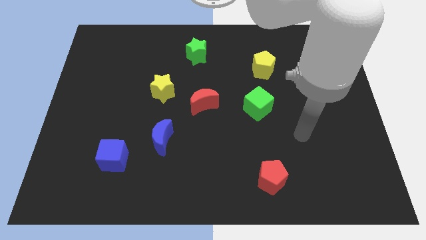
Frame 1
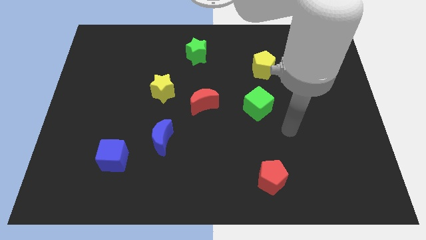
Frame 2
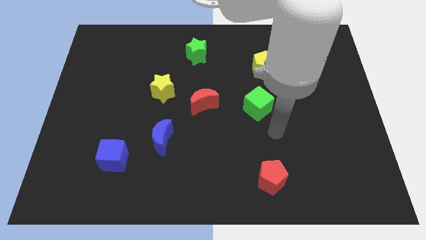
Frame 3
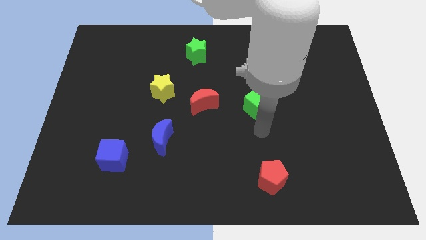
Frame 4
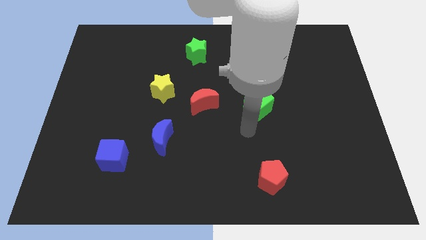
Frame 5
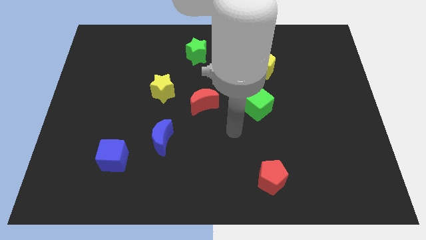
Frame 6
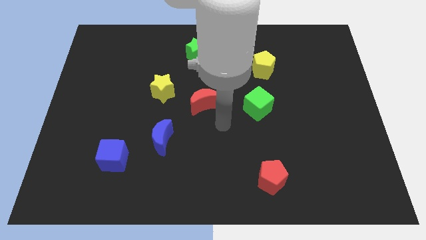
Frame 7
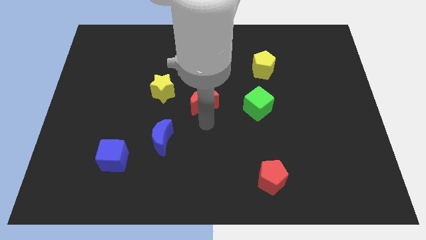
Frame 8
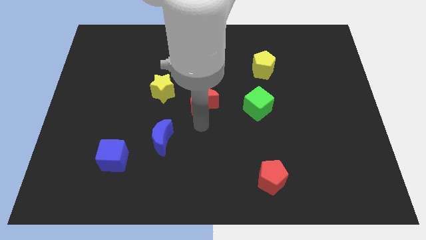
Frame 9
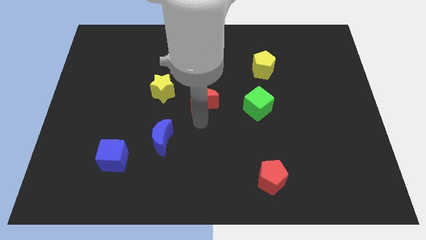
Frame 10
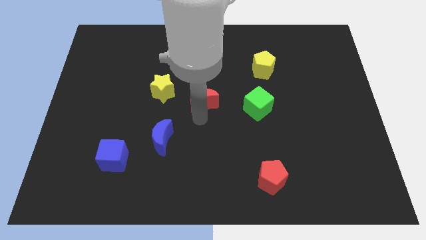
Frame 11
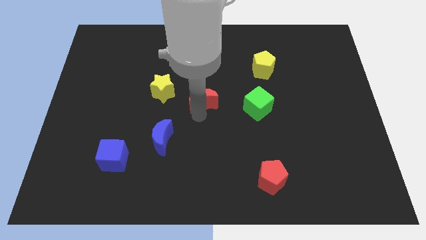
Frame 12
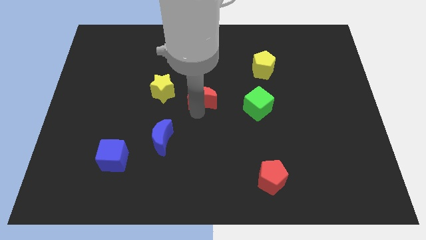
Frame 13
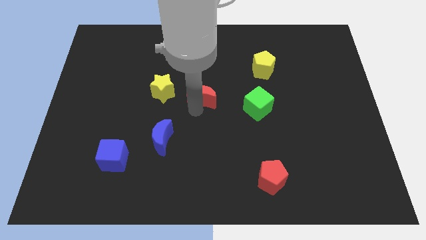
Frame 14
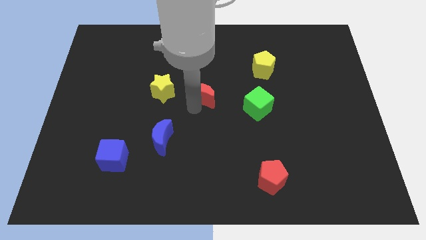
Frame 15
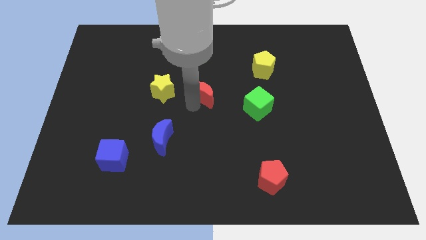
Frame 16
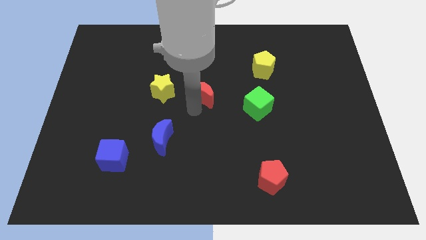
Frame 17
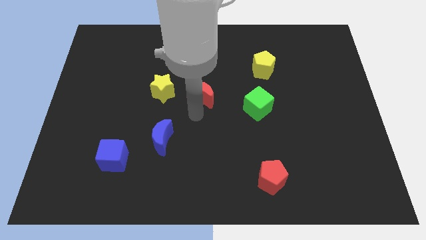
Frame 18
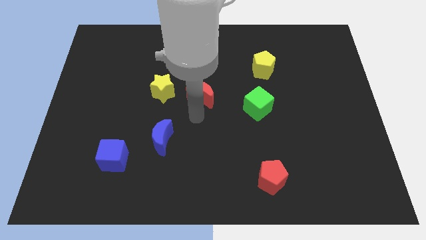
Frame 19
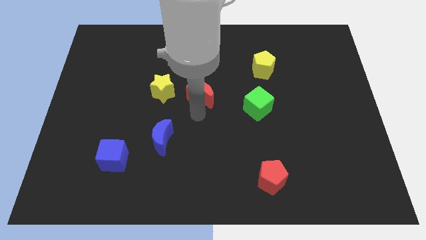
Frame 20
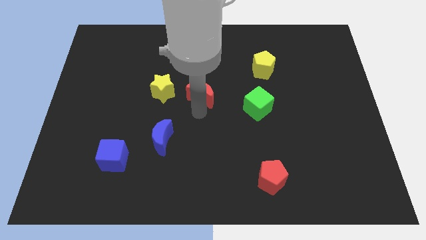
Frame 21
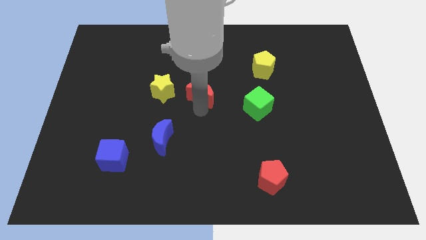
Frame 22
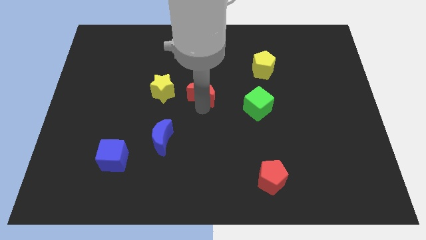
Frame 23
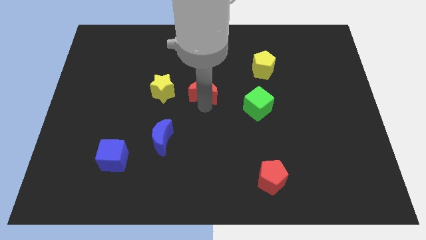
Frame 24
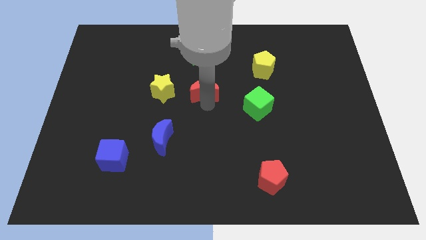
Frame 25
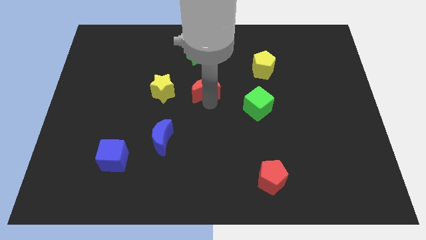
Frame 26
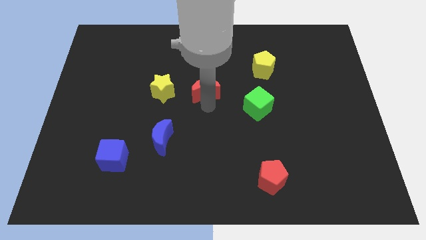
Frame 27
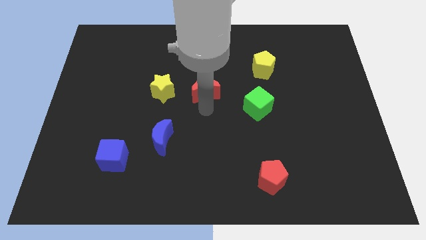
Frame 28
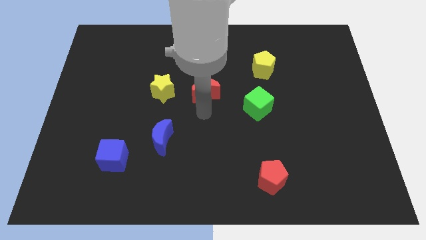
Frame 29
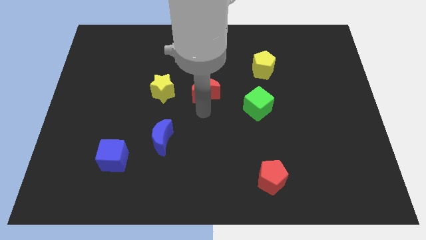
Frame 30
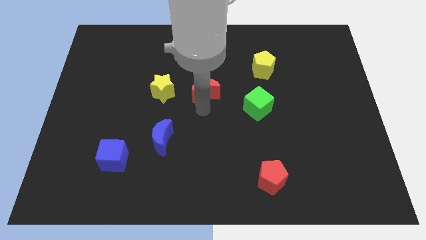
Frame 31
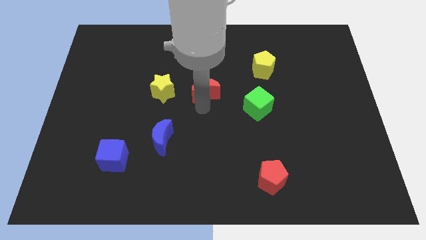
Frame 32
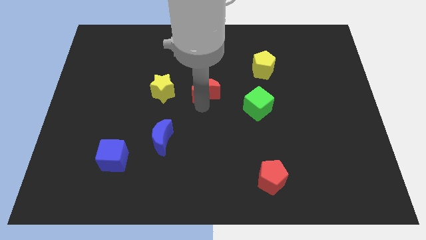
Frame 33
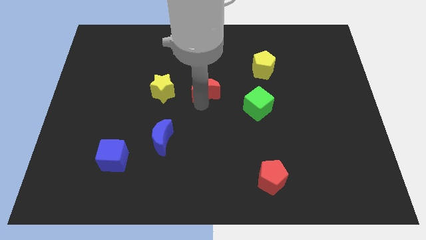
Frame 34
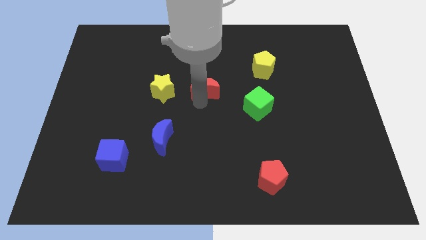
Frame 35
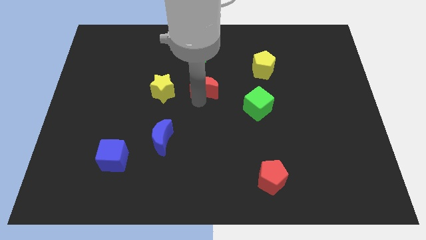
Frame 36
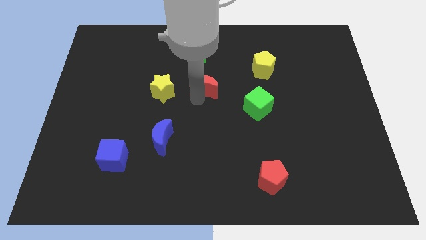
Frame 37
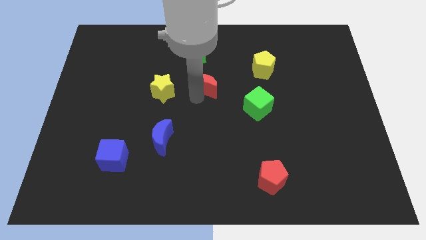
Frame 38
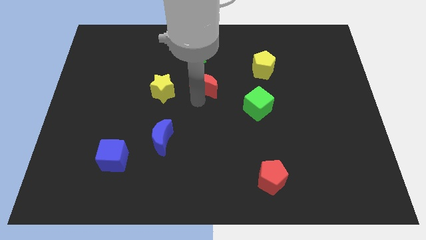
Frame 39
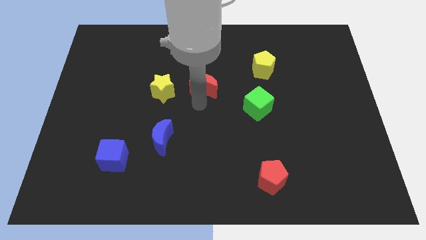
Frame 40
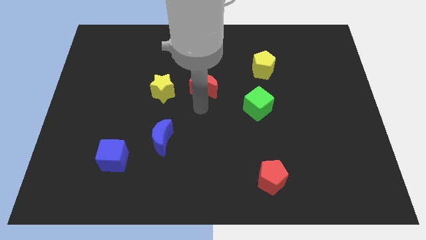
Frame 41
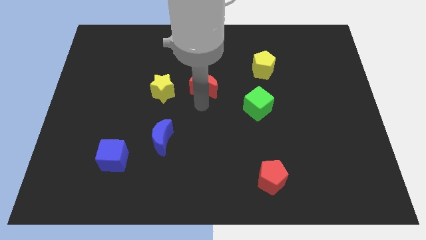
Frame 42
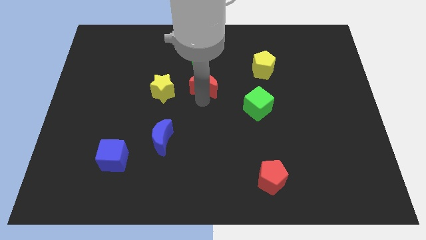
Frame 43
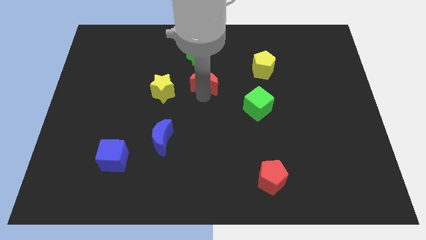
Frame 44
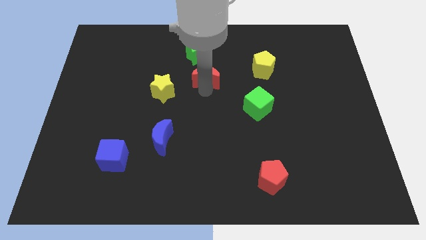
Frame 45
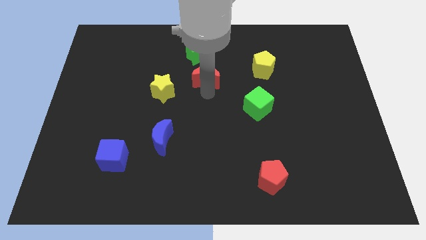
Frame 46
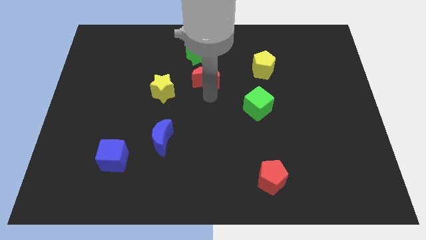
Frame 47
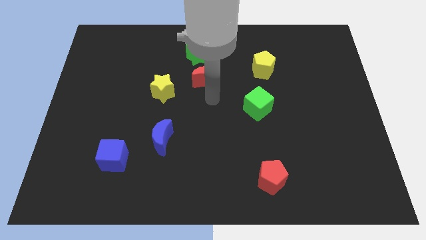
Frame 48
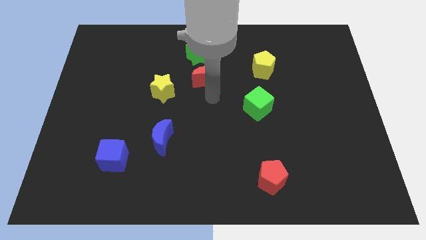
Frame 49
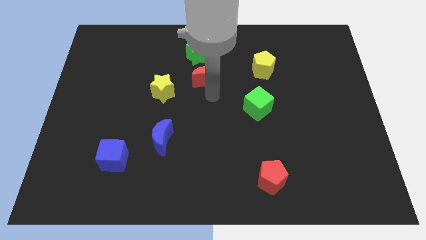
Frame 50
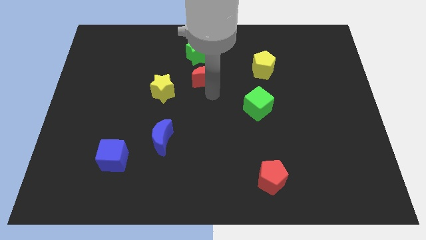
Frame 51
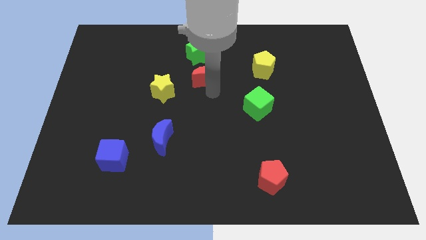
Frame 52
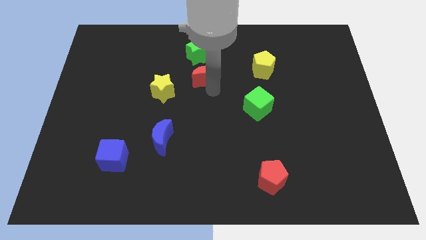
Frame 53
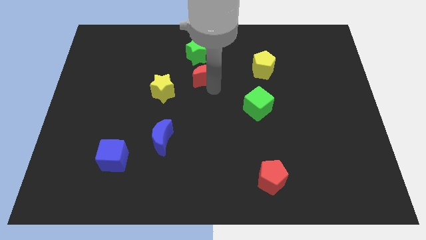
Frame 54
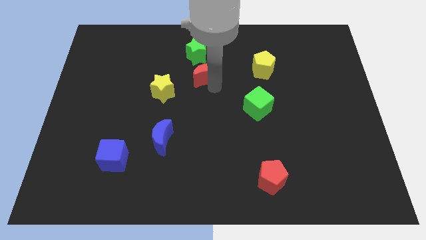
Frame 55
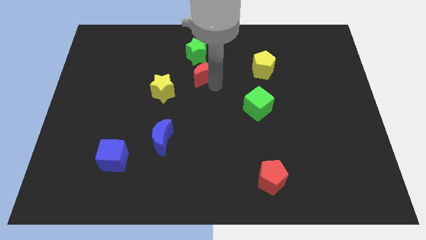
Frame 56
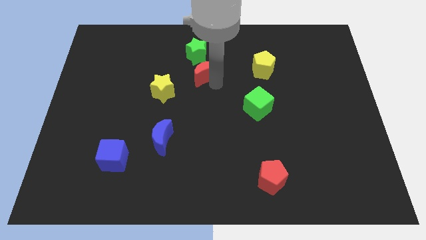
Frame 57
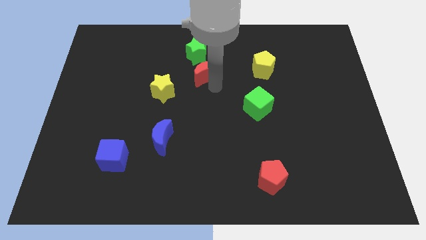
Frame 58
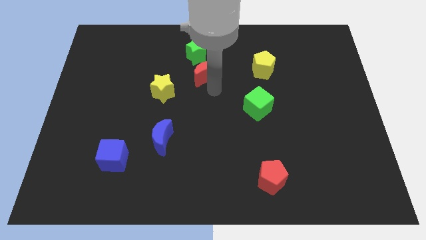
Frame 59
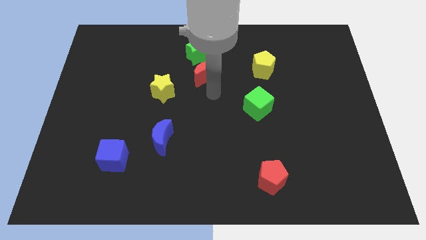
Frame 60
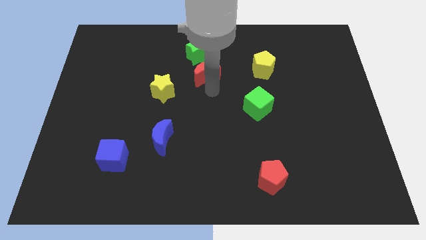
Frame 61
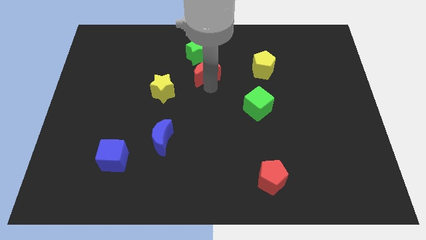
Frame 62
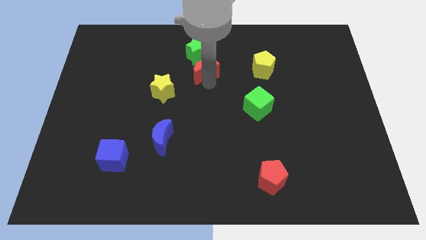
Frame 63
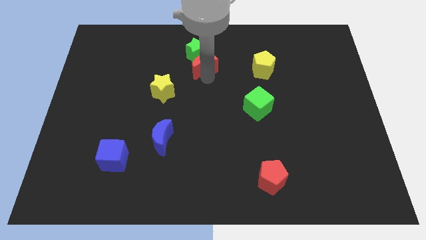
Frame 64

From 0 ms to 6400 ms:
move the red moon to the green star
